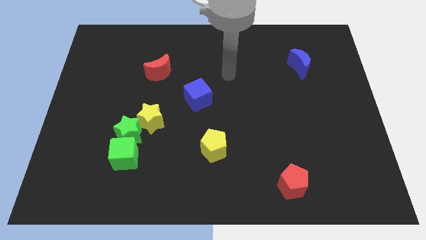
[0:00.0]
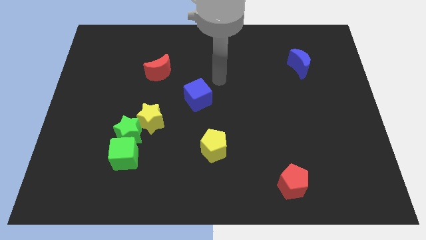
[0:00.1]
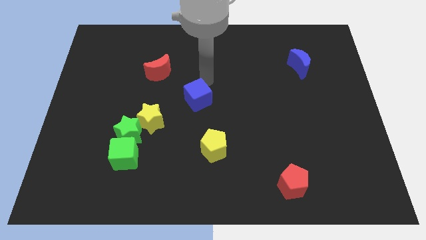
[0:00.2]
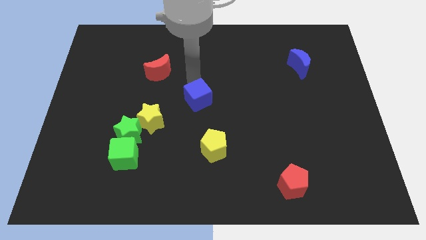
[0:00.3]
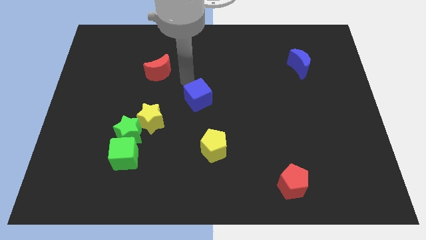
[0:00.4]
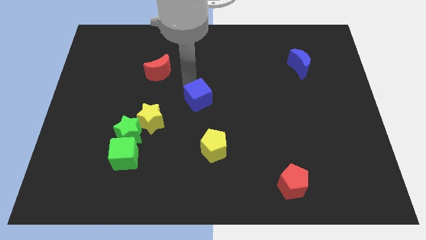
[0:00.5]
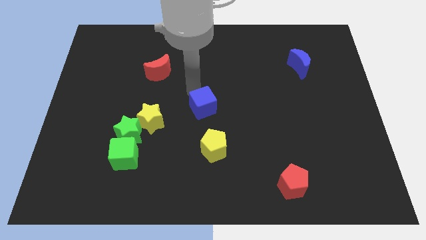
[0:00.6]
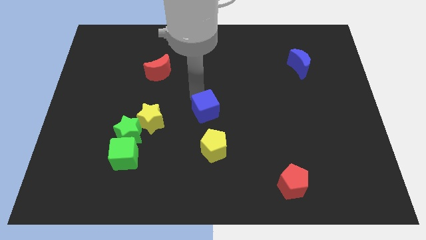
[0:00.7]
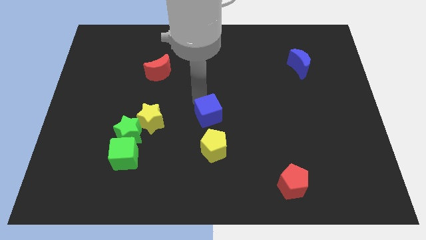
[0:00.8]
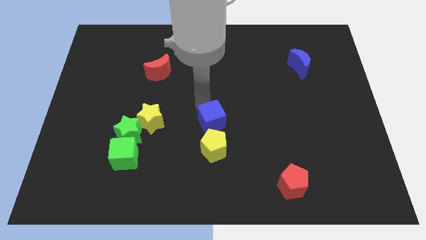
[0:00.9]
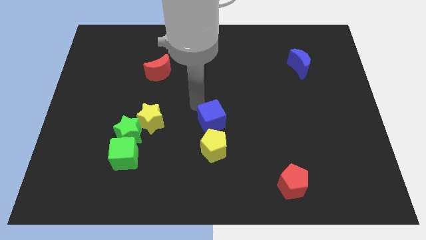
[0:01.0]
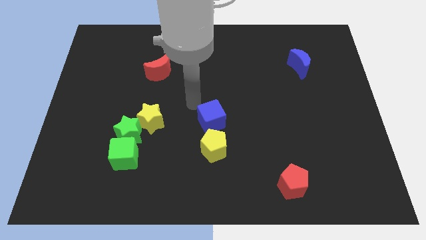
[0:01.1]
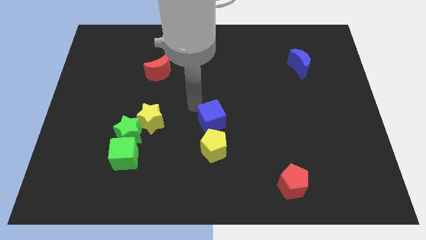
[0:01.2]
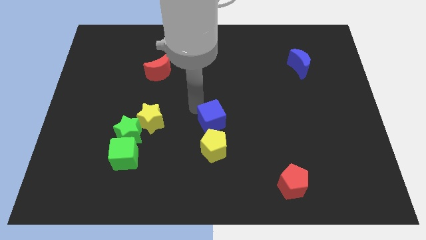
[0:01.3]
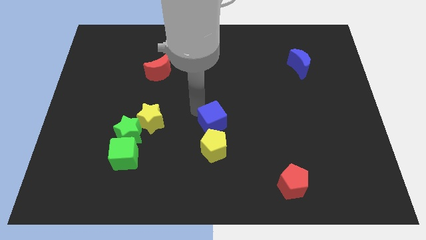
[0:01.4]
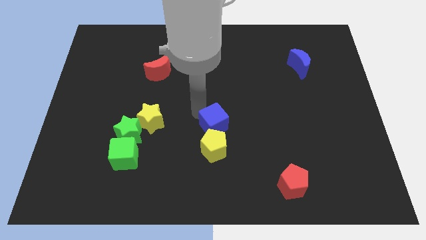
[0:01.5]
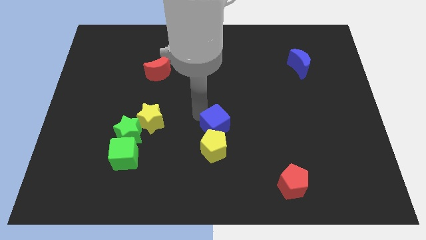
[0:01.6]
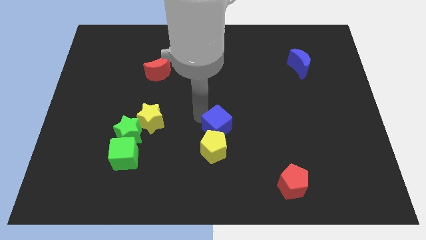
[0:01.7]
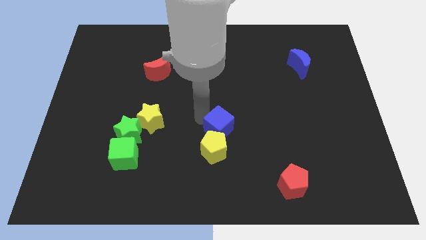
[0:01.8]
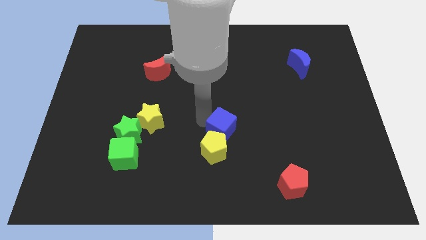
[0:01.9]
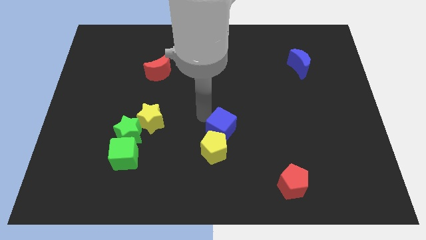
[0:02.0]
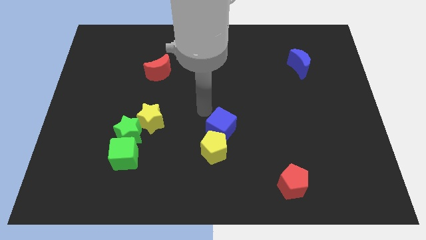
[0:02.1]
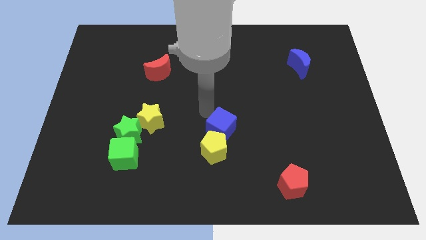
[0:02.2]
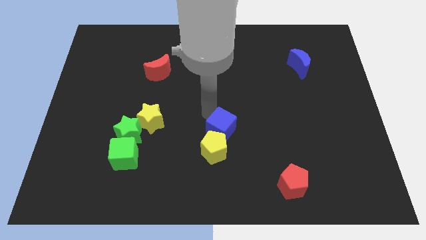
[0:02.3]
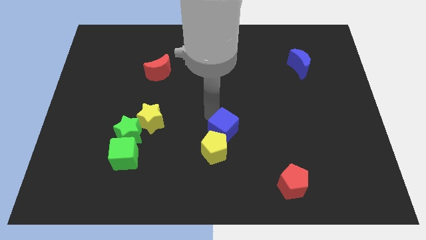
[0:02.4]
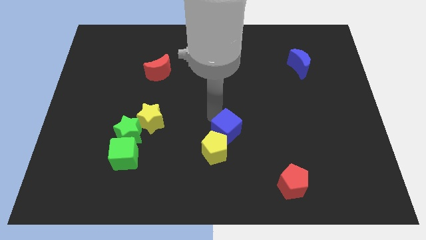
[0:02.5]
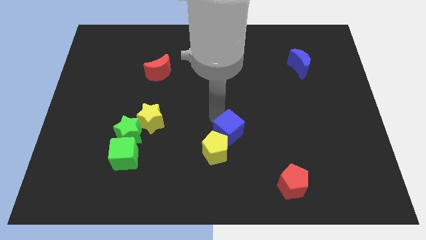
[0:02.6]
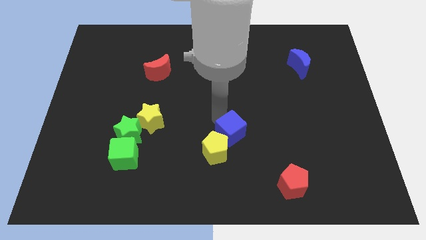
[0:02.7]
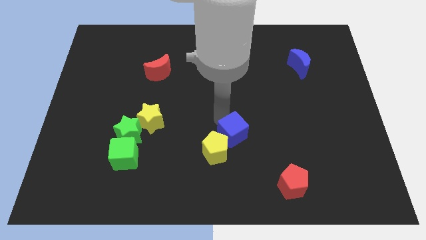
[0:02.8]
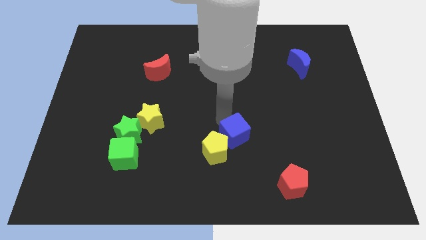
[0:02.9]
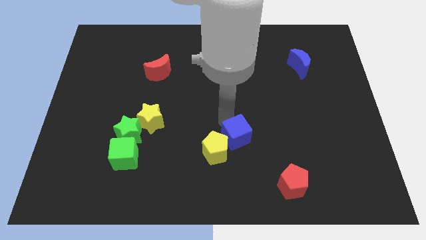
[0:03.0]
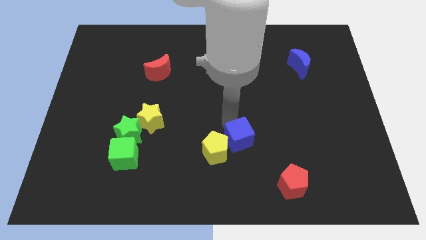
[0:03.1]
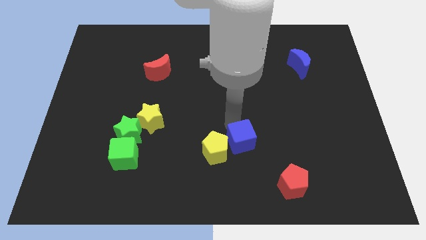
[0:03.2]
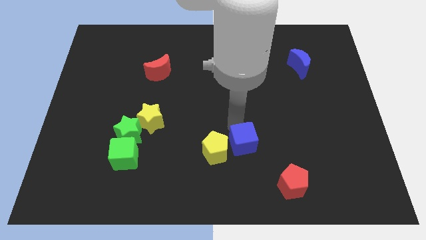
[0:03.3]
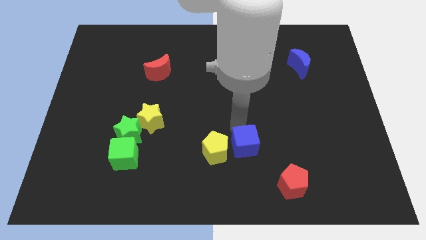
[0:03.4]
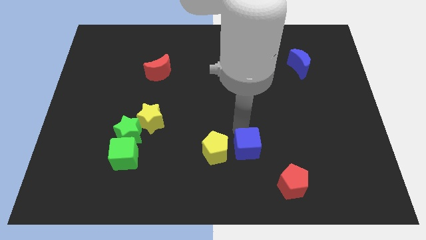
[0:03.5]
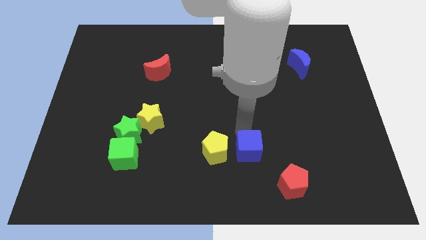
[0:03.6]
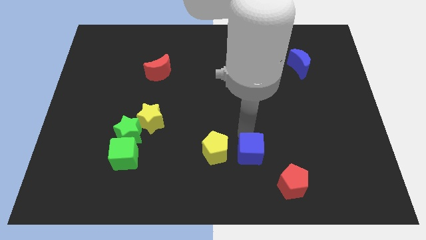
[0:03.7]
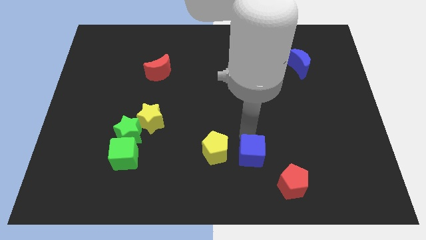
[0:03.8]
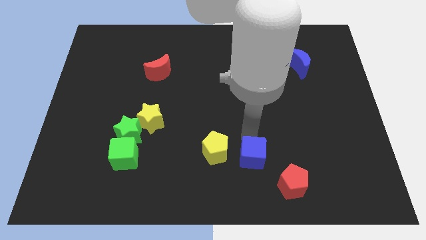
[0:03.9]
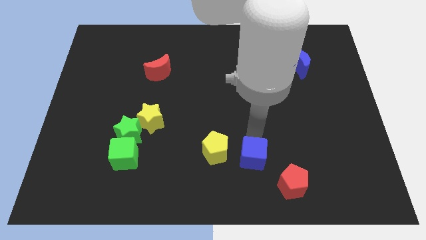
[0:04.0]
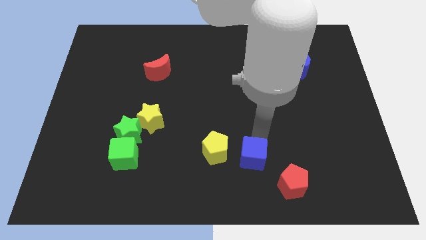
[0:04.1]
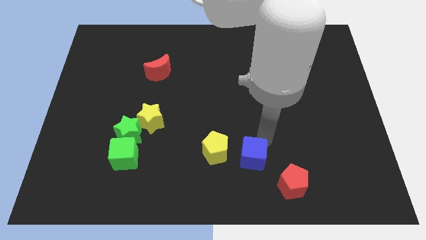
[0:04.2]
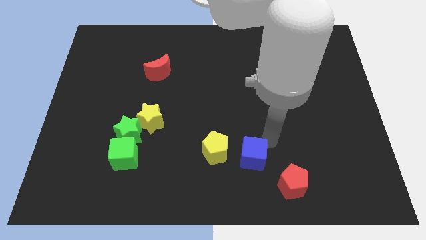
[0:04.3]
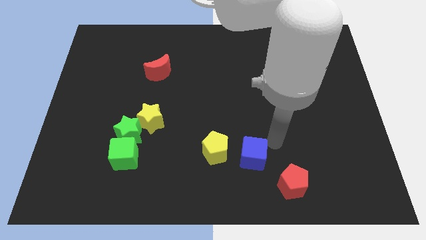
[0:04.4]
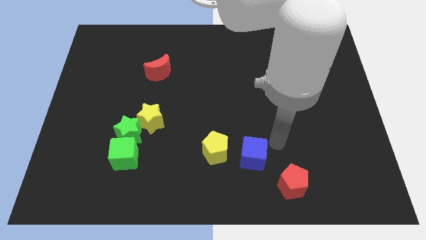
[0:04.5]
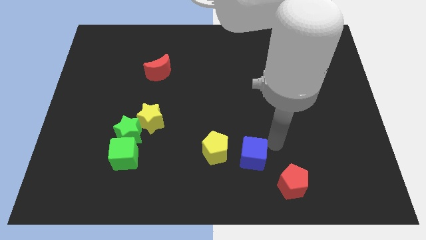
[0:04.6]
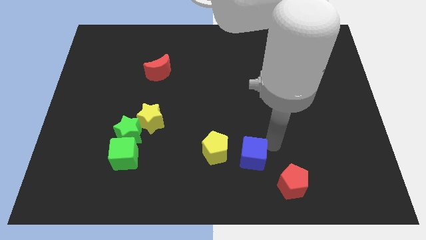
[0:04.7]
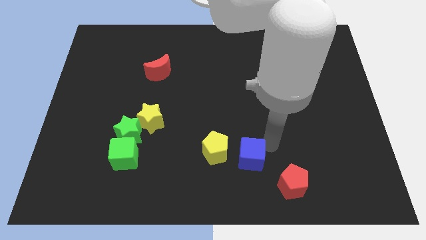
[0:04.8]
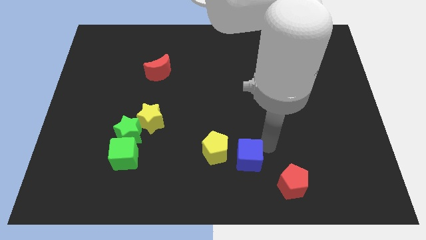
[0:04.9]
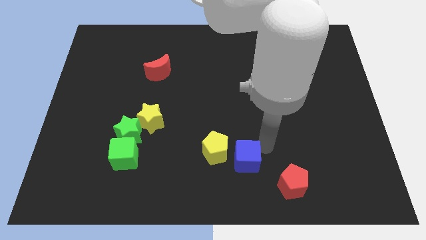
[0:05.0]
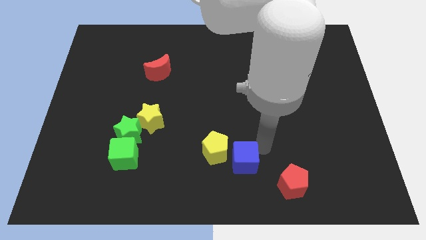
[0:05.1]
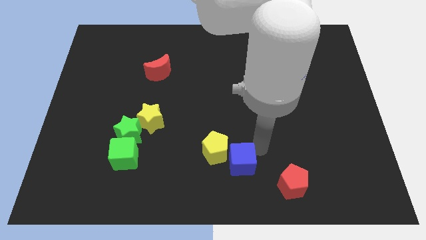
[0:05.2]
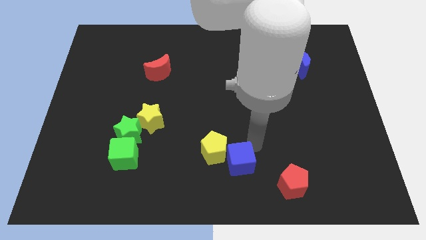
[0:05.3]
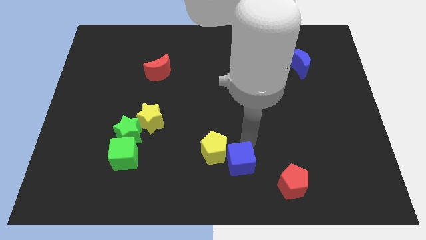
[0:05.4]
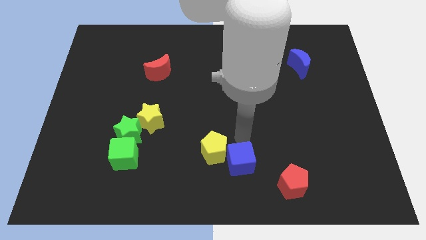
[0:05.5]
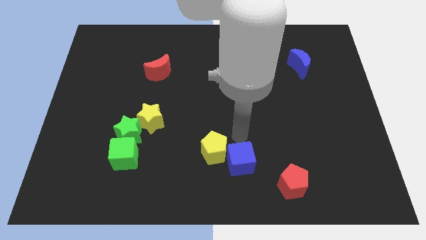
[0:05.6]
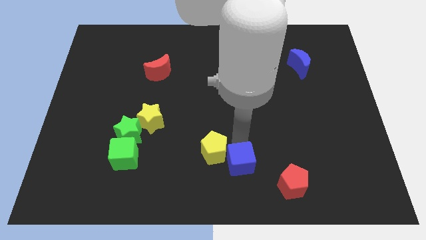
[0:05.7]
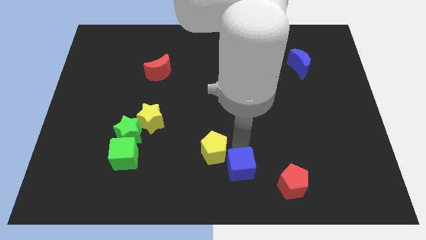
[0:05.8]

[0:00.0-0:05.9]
move the blue cube left of the red pentagon

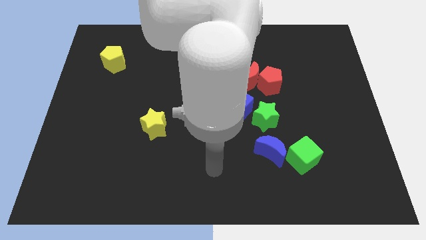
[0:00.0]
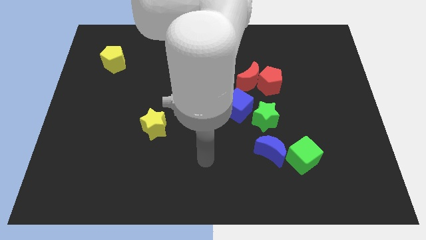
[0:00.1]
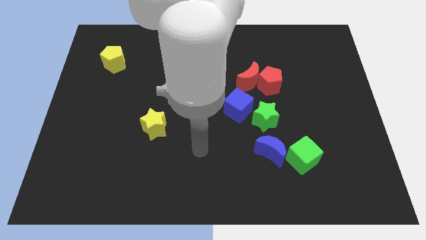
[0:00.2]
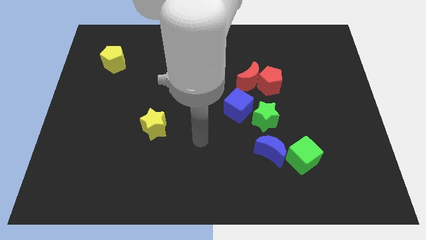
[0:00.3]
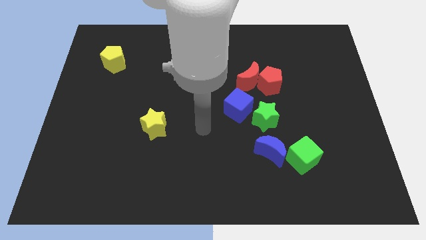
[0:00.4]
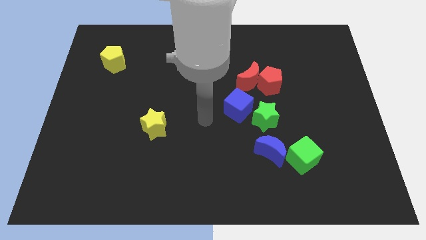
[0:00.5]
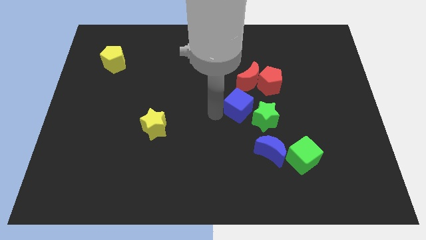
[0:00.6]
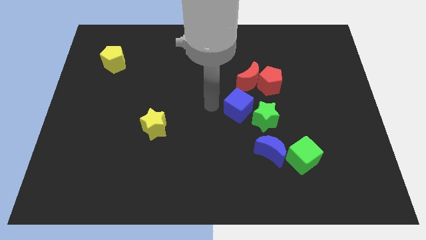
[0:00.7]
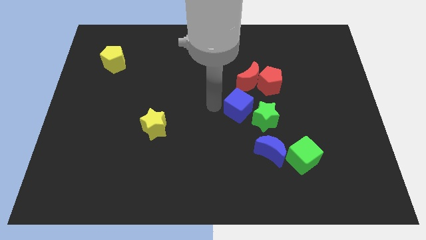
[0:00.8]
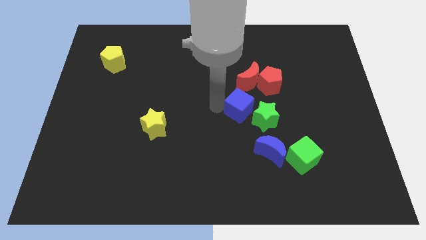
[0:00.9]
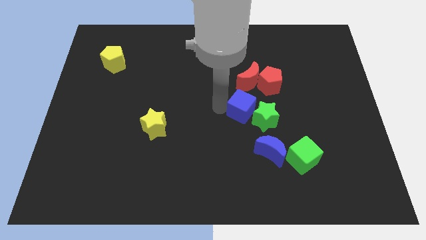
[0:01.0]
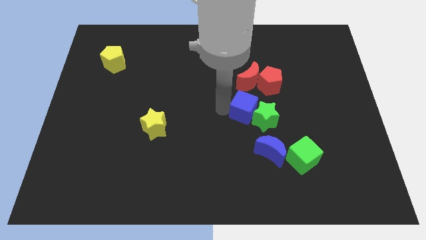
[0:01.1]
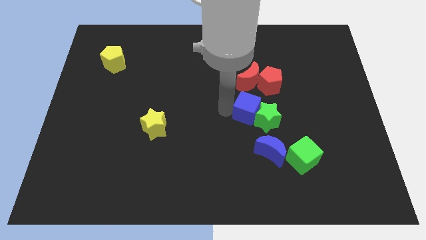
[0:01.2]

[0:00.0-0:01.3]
push the blue cube above the blue moon

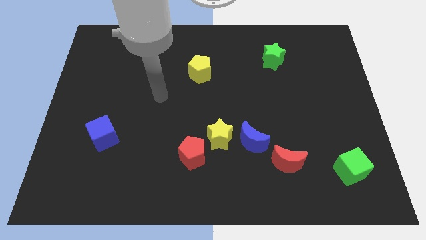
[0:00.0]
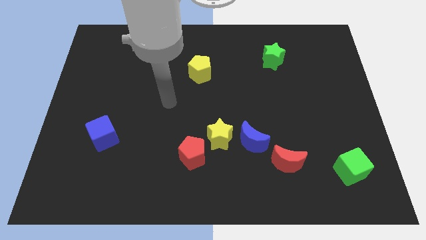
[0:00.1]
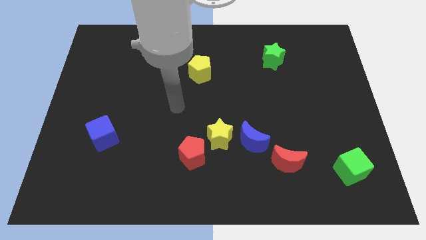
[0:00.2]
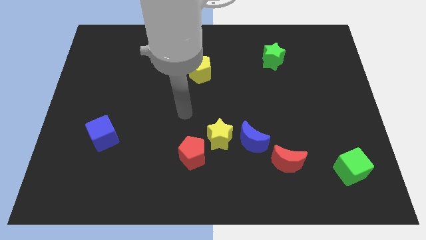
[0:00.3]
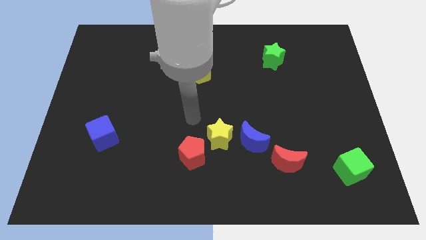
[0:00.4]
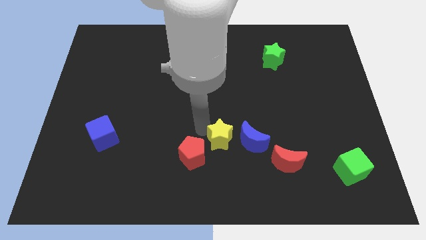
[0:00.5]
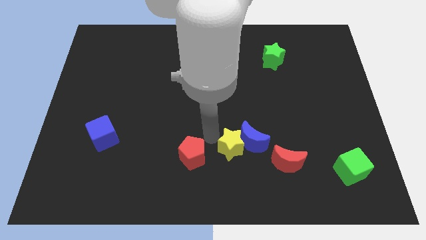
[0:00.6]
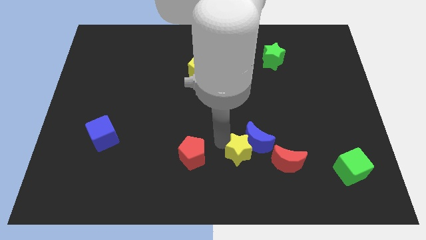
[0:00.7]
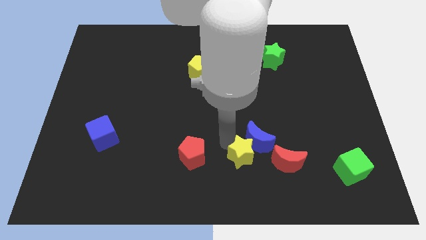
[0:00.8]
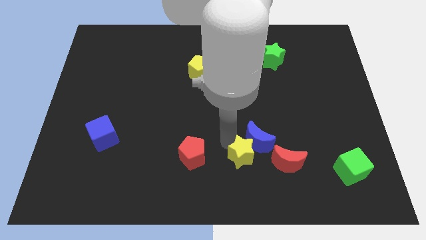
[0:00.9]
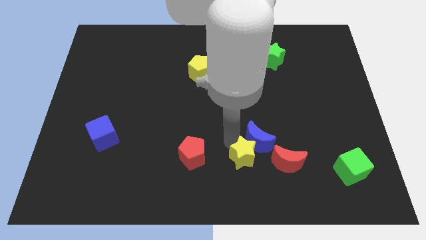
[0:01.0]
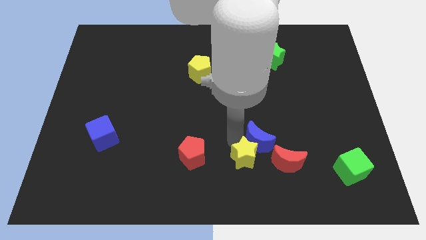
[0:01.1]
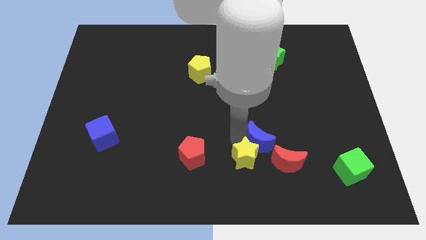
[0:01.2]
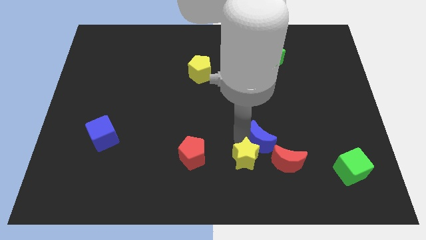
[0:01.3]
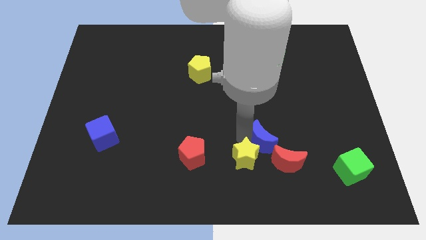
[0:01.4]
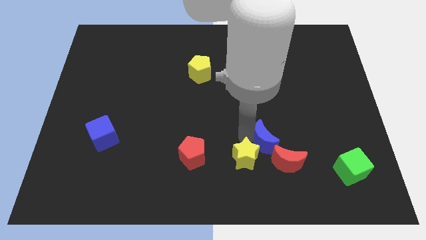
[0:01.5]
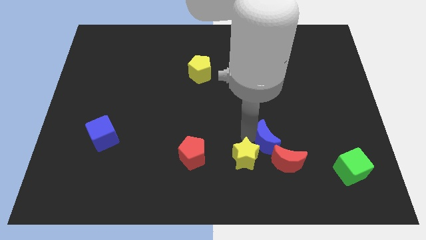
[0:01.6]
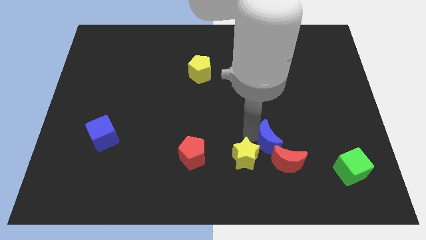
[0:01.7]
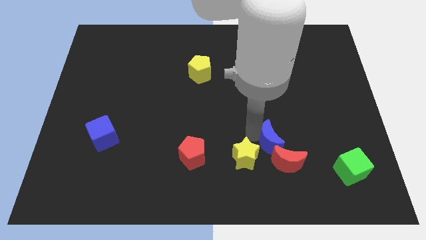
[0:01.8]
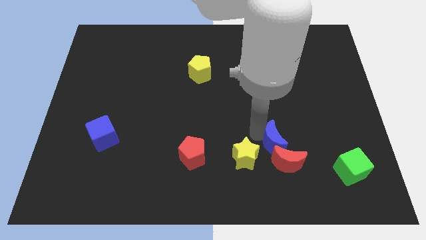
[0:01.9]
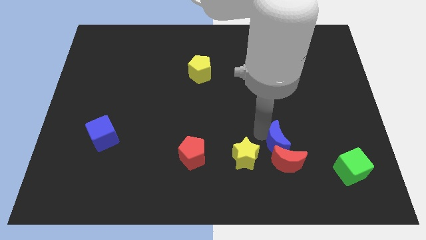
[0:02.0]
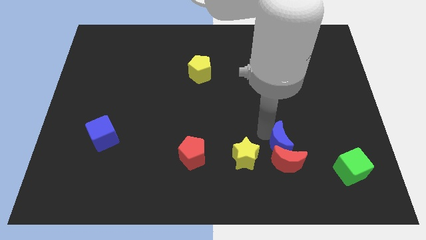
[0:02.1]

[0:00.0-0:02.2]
push the blue moon diagonally up and to the right of the red moon
